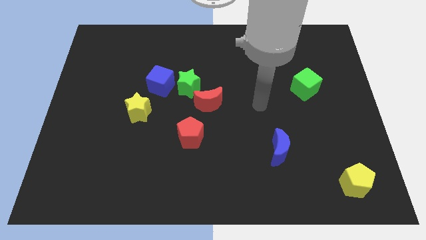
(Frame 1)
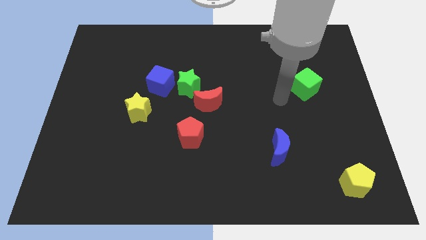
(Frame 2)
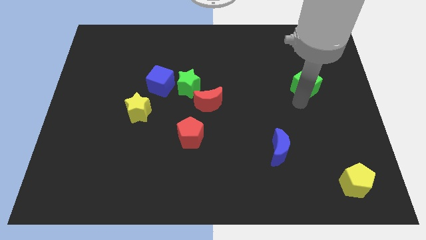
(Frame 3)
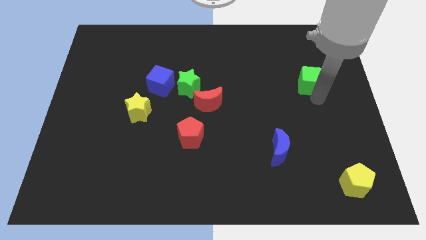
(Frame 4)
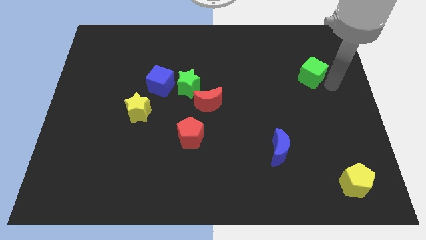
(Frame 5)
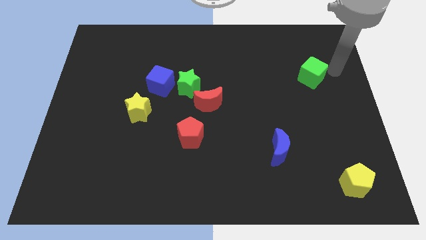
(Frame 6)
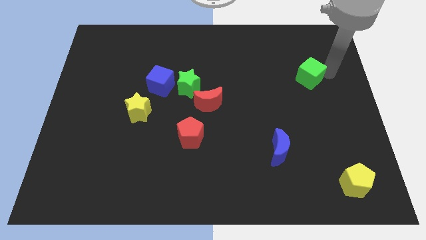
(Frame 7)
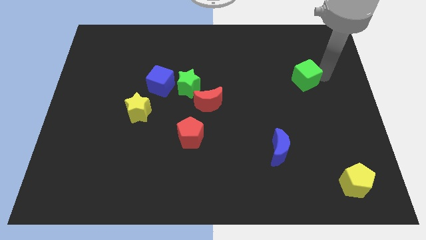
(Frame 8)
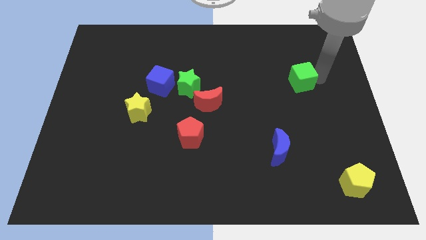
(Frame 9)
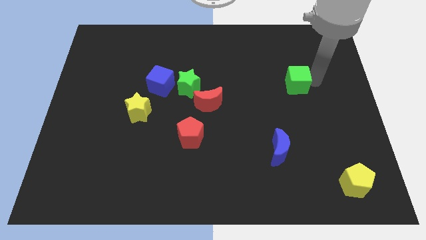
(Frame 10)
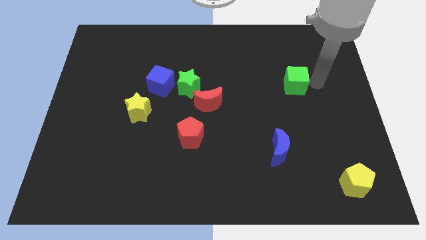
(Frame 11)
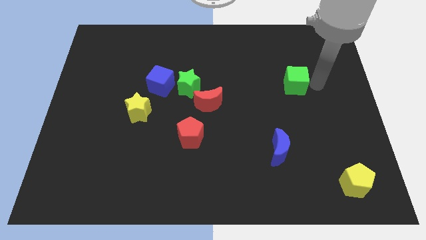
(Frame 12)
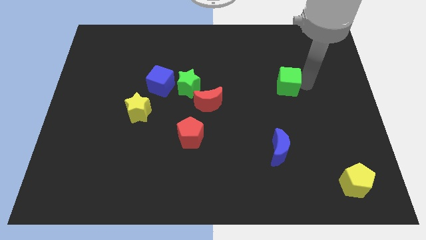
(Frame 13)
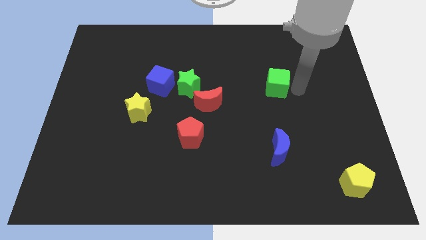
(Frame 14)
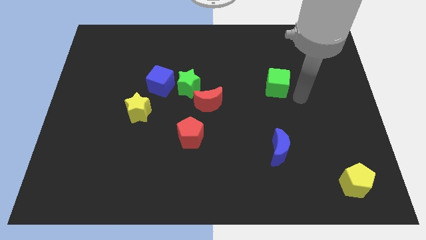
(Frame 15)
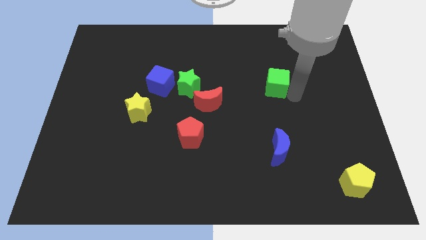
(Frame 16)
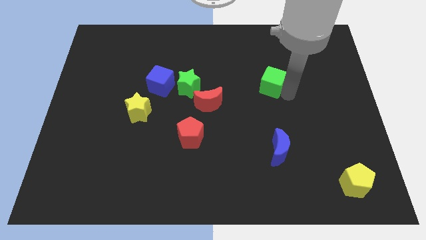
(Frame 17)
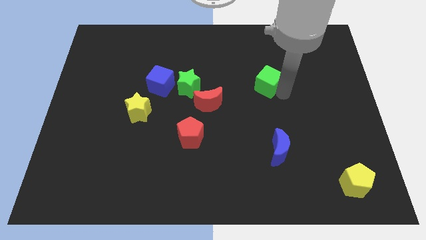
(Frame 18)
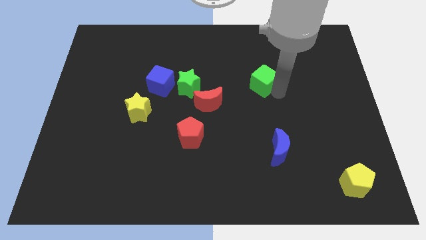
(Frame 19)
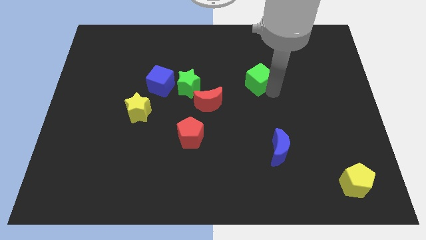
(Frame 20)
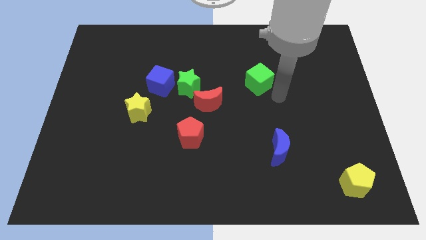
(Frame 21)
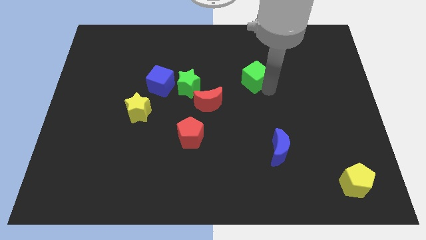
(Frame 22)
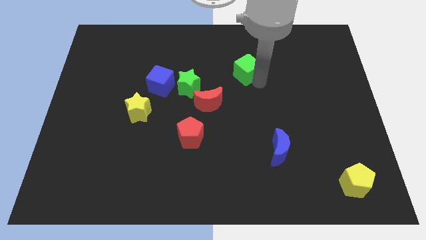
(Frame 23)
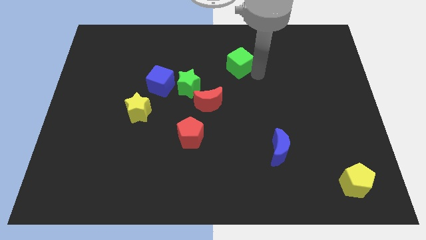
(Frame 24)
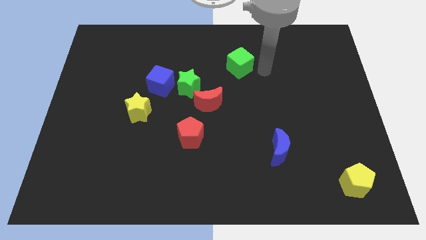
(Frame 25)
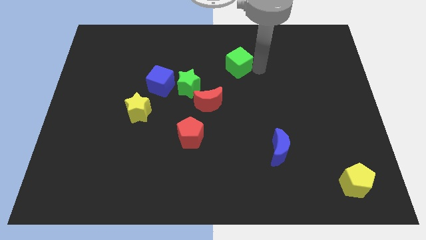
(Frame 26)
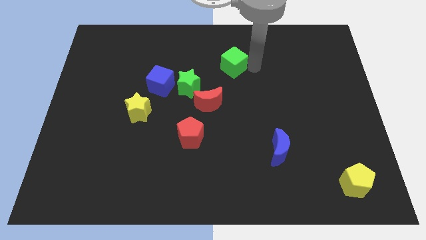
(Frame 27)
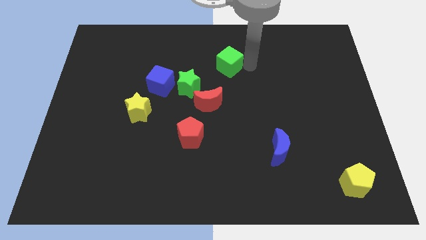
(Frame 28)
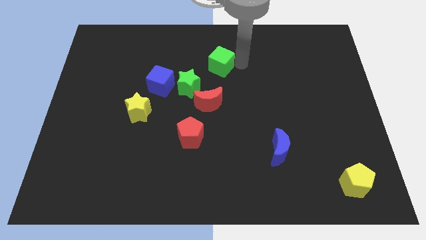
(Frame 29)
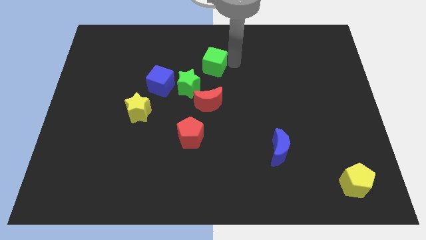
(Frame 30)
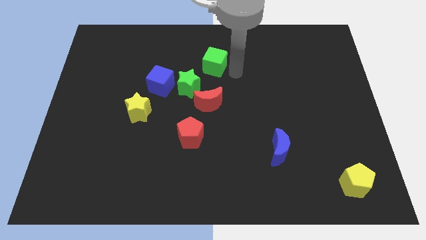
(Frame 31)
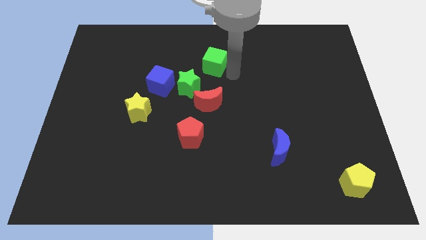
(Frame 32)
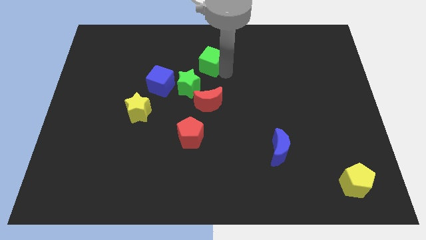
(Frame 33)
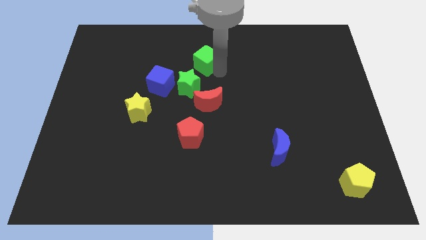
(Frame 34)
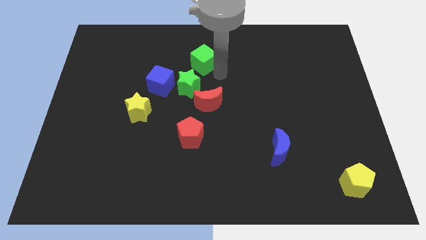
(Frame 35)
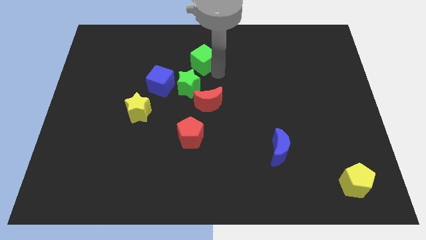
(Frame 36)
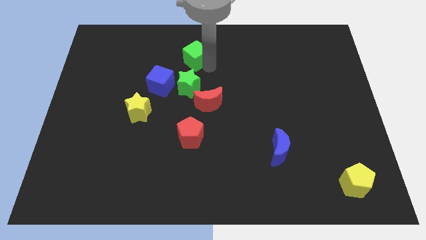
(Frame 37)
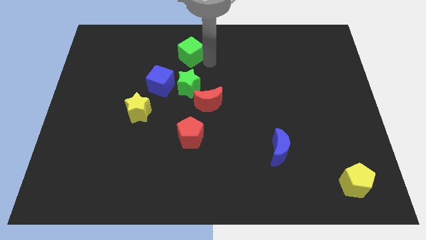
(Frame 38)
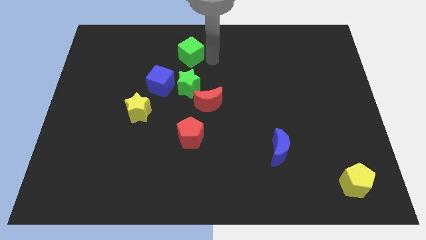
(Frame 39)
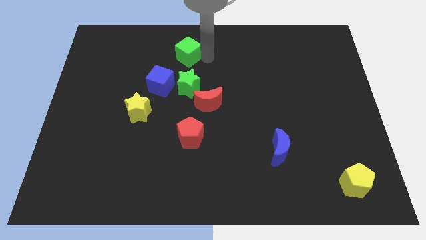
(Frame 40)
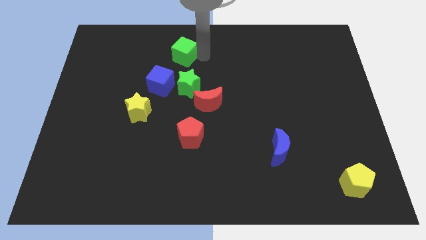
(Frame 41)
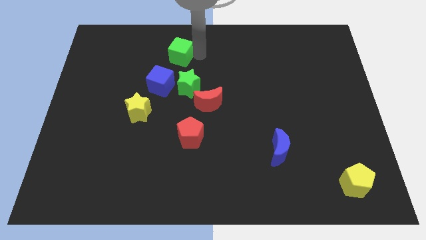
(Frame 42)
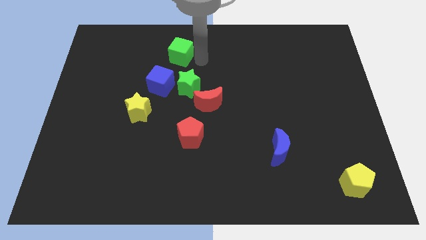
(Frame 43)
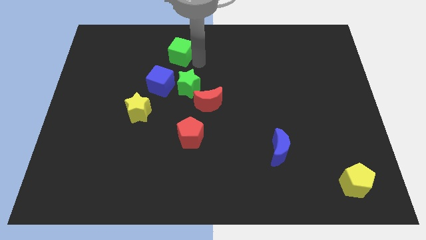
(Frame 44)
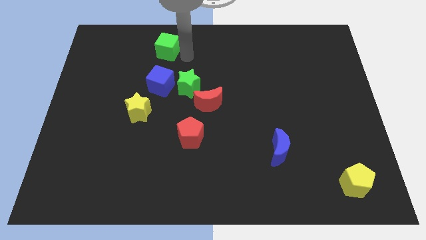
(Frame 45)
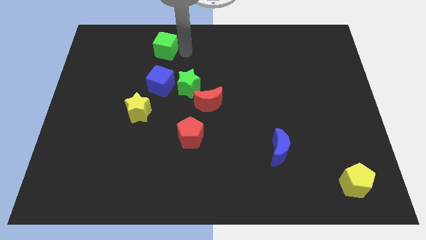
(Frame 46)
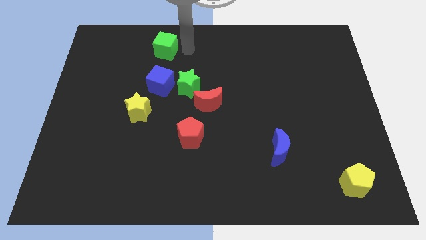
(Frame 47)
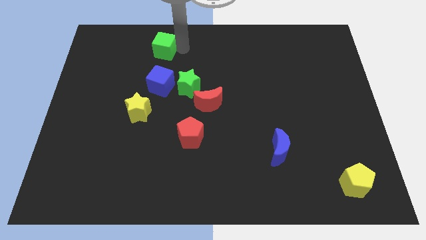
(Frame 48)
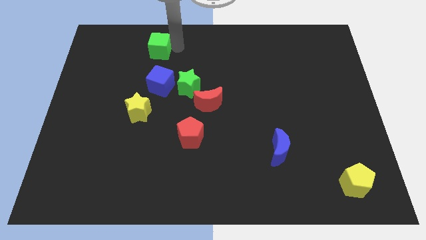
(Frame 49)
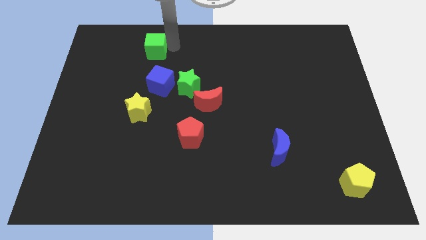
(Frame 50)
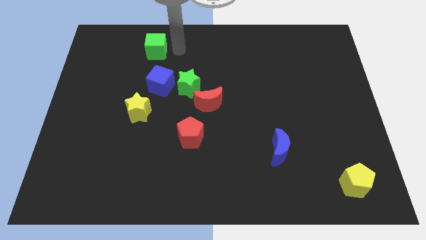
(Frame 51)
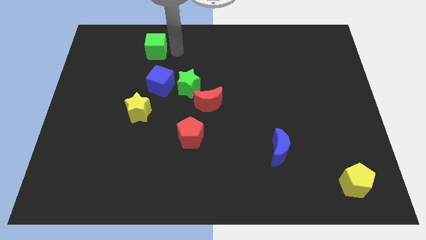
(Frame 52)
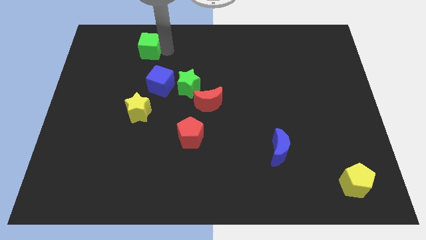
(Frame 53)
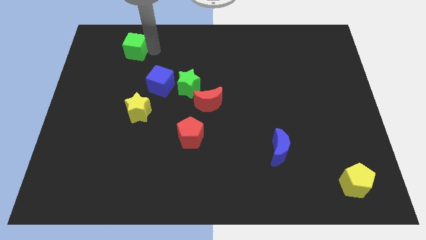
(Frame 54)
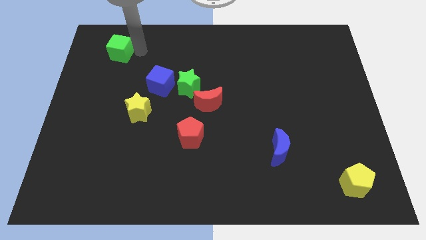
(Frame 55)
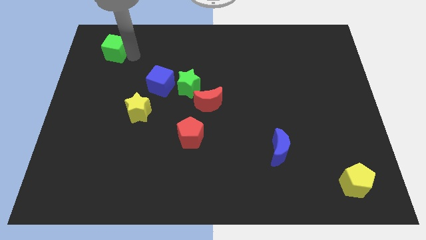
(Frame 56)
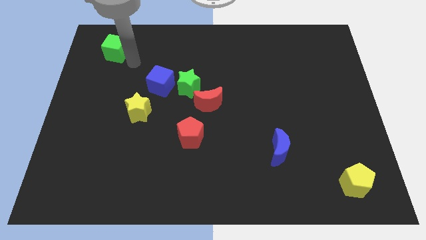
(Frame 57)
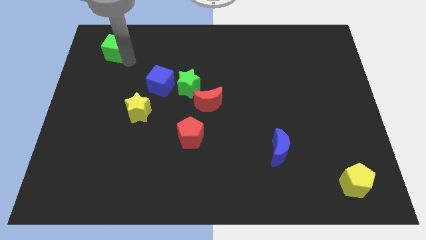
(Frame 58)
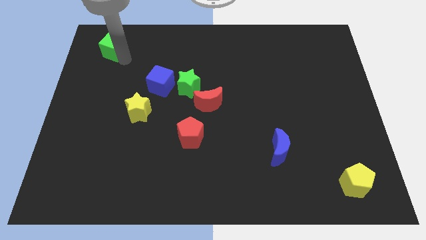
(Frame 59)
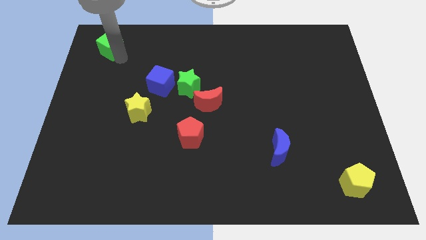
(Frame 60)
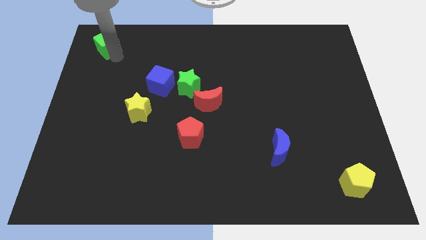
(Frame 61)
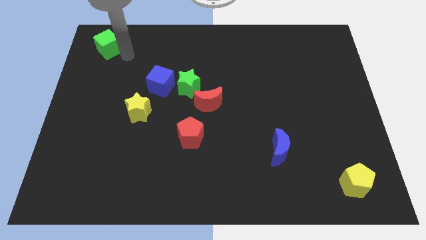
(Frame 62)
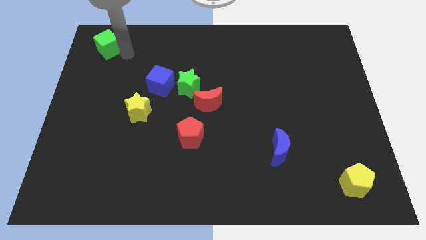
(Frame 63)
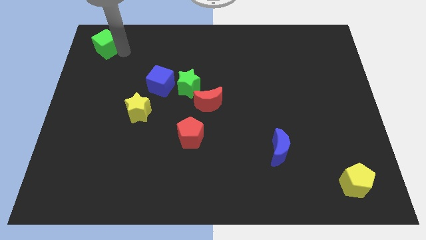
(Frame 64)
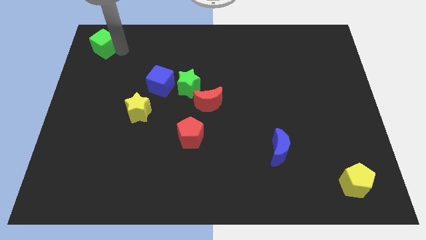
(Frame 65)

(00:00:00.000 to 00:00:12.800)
slide the green cube to the top left corner
